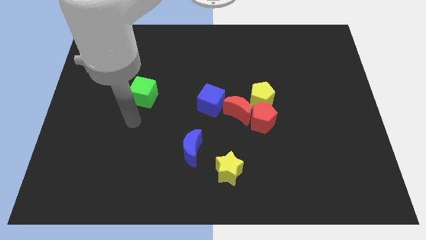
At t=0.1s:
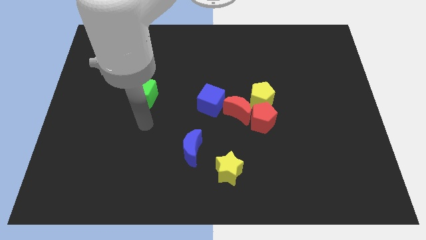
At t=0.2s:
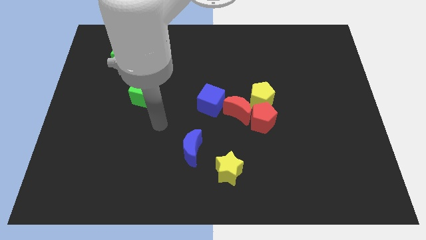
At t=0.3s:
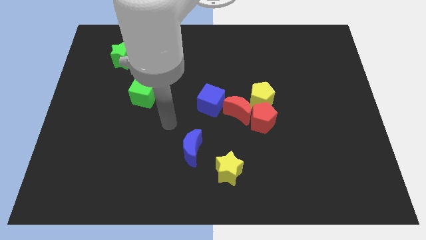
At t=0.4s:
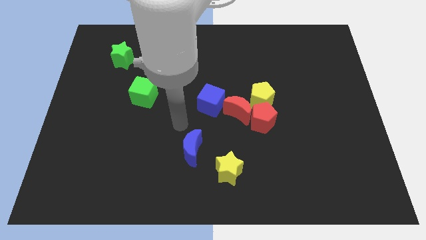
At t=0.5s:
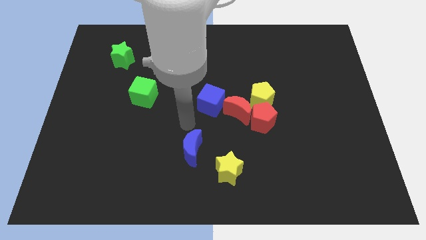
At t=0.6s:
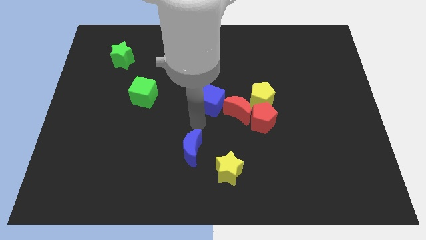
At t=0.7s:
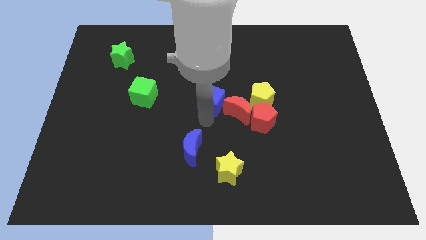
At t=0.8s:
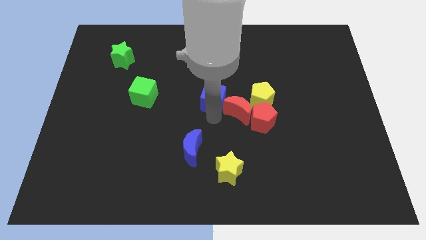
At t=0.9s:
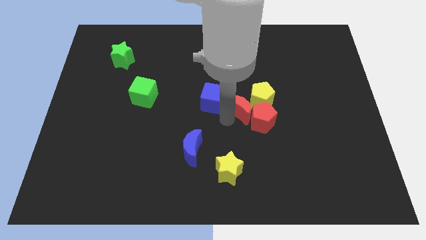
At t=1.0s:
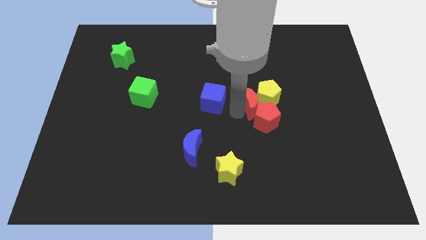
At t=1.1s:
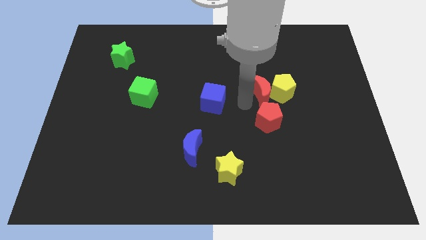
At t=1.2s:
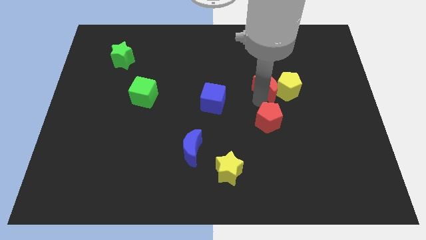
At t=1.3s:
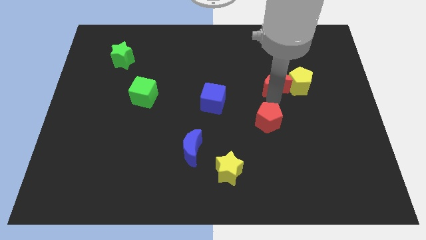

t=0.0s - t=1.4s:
pull the red pentagon apart from the red moon and yellow pentagon

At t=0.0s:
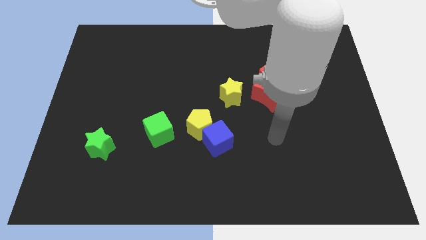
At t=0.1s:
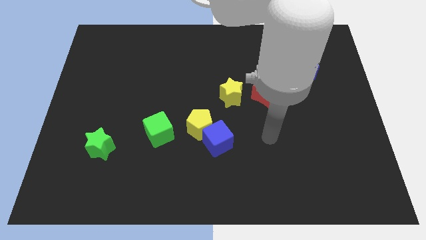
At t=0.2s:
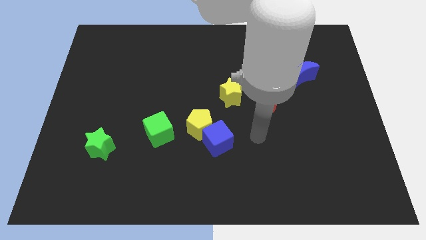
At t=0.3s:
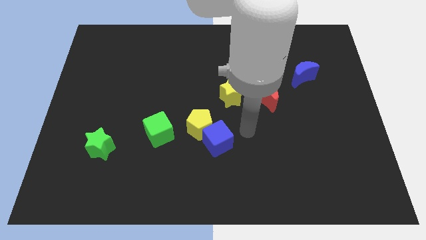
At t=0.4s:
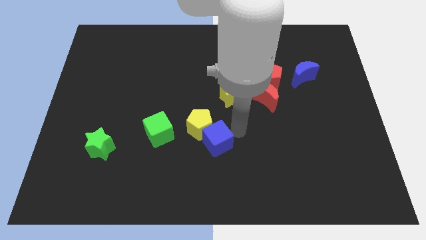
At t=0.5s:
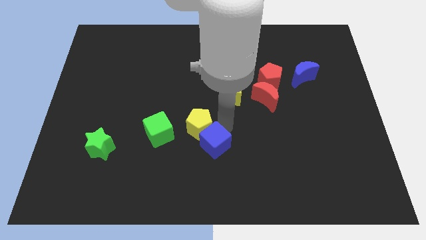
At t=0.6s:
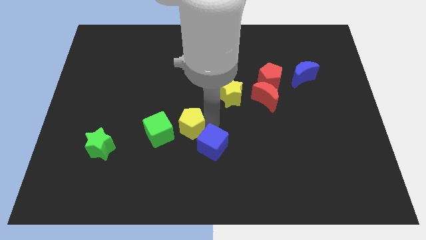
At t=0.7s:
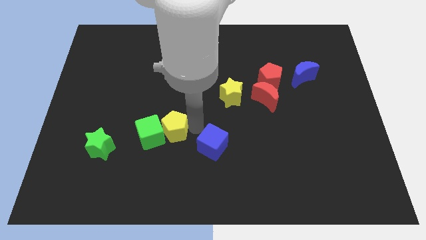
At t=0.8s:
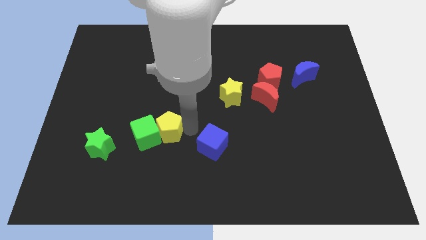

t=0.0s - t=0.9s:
move the blue cube away from the yellow pentagon

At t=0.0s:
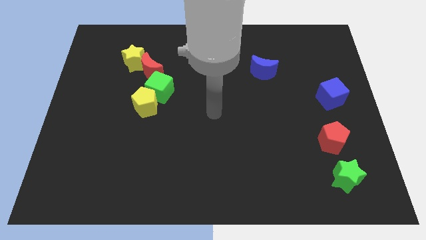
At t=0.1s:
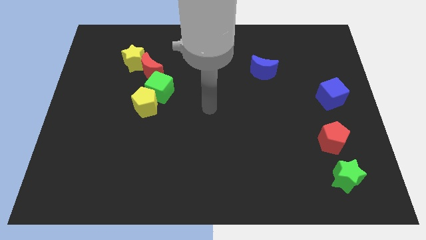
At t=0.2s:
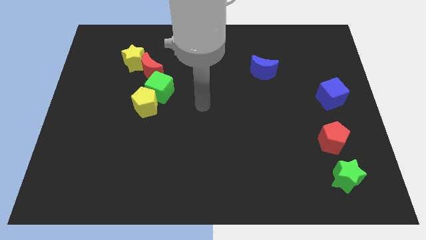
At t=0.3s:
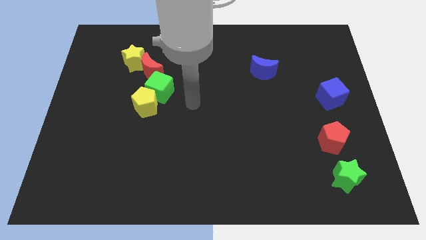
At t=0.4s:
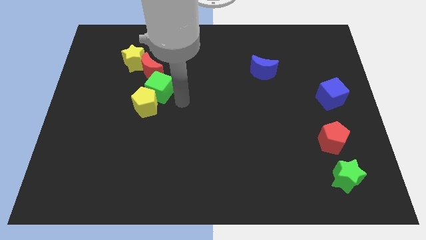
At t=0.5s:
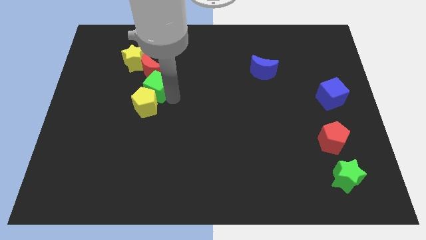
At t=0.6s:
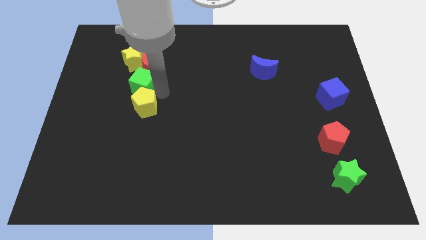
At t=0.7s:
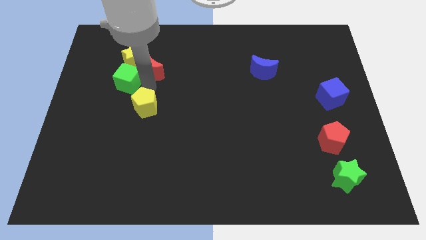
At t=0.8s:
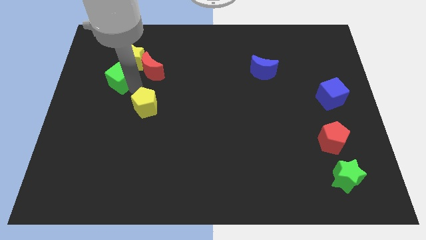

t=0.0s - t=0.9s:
move the yellow pentagon away from the green cube

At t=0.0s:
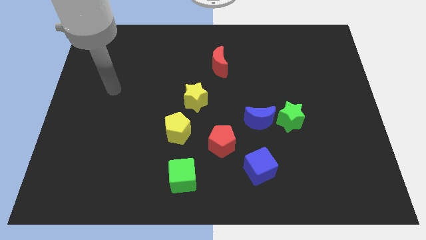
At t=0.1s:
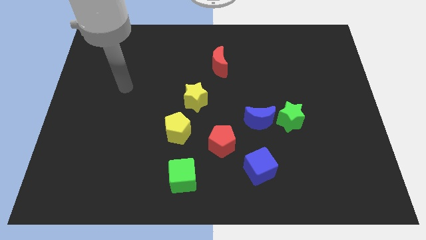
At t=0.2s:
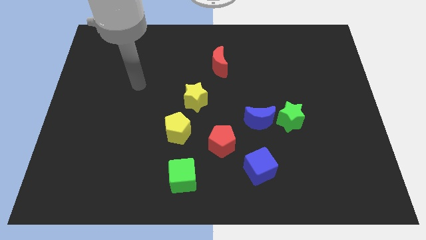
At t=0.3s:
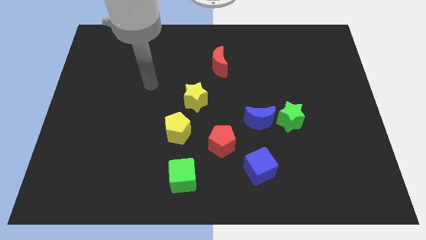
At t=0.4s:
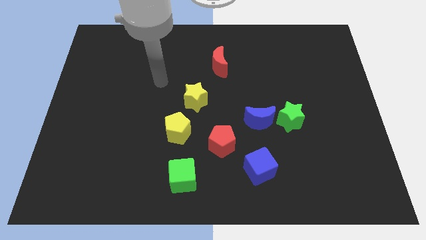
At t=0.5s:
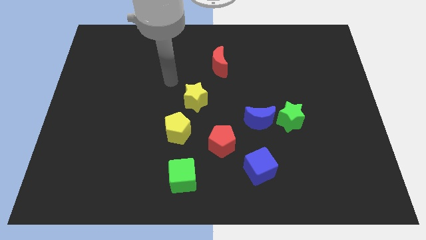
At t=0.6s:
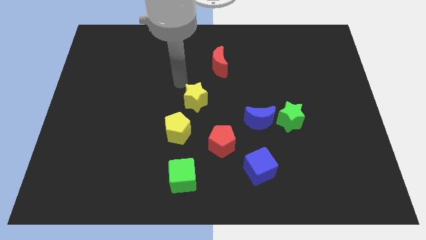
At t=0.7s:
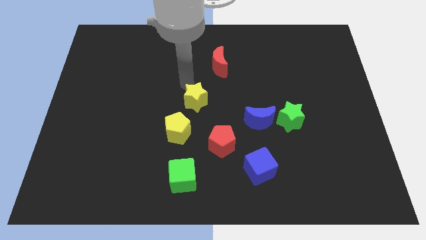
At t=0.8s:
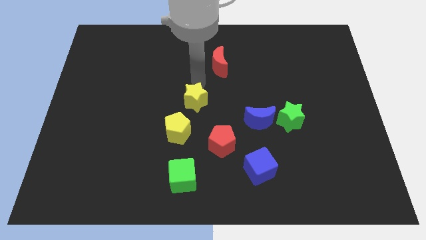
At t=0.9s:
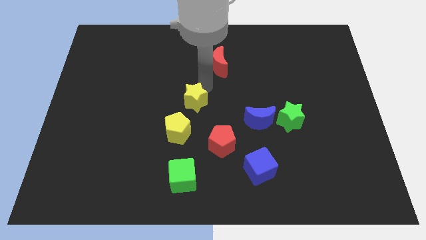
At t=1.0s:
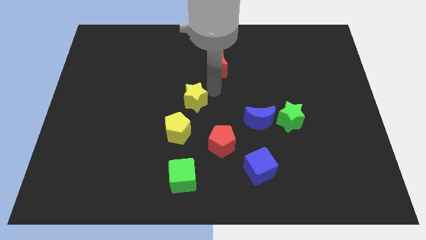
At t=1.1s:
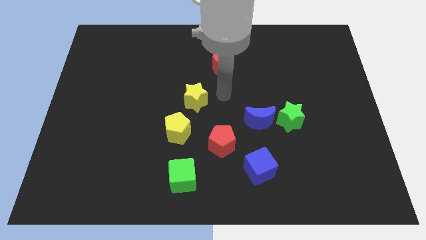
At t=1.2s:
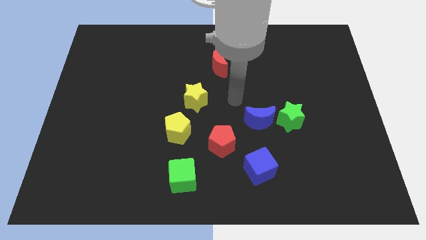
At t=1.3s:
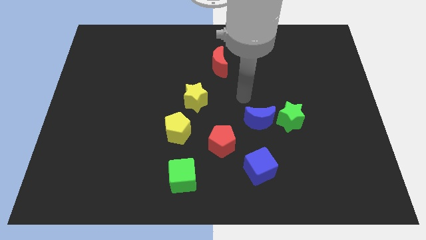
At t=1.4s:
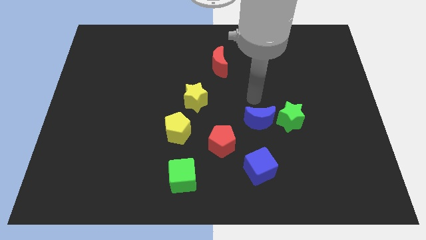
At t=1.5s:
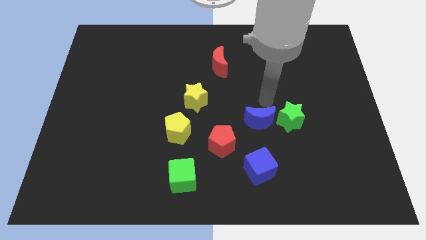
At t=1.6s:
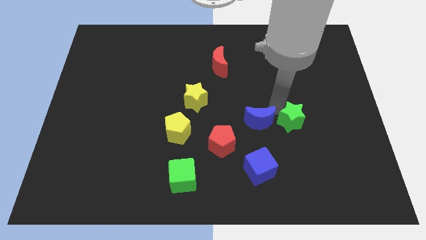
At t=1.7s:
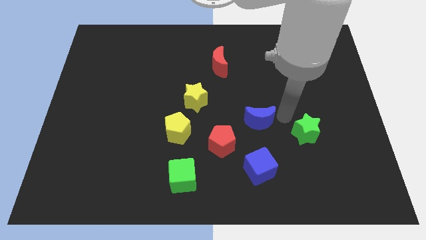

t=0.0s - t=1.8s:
move the blue moon away from the green star

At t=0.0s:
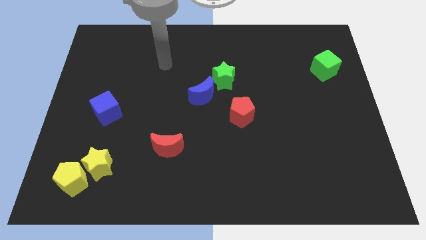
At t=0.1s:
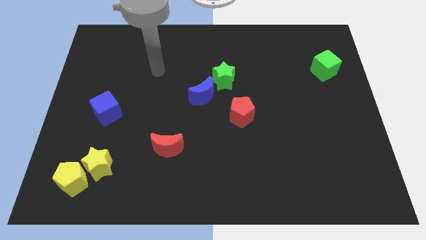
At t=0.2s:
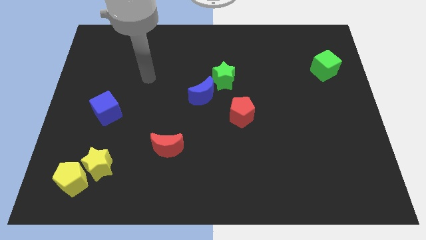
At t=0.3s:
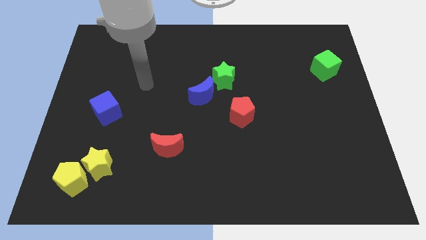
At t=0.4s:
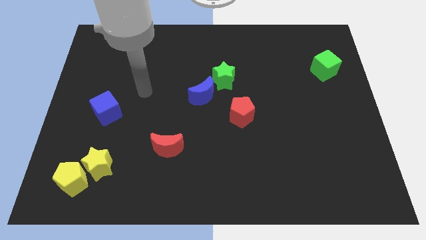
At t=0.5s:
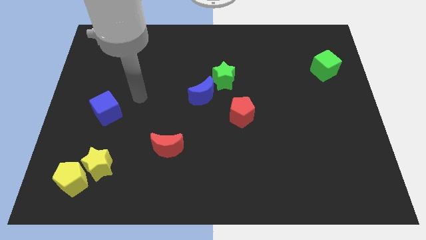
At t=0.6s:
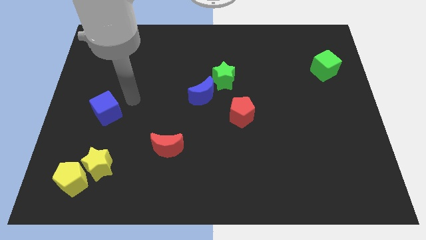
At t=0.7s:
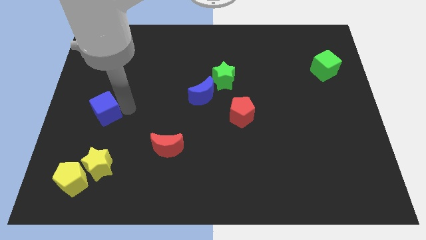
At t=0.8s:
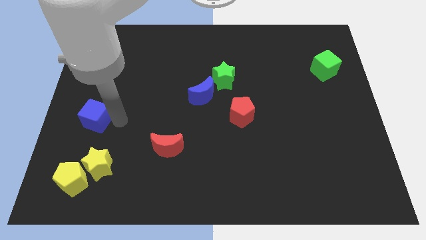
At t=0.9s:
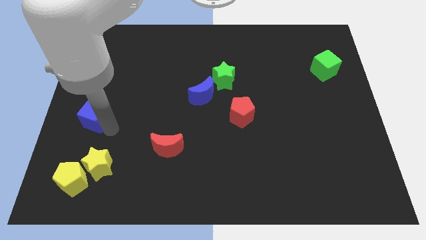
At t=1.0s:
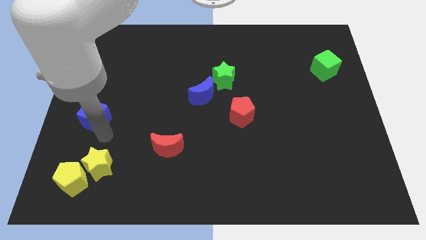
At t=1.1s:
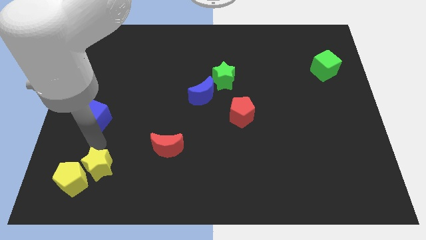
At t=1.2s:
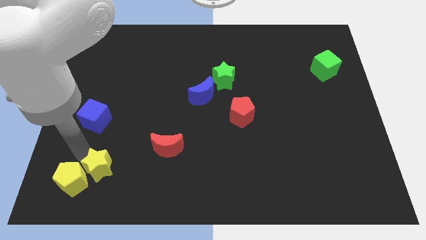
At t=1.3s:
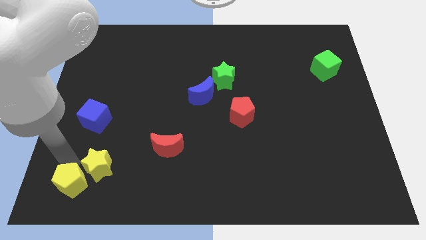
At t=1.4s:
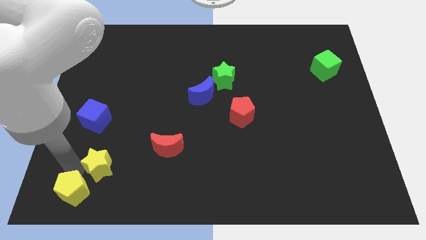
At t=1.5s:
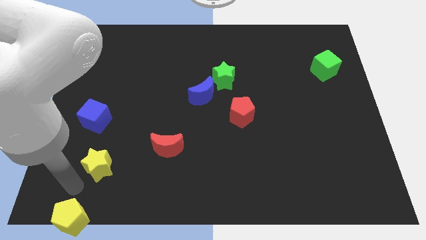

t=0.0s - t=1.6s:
separate the yellow star from the yellow pentagon

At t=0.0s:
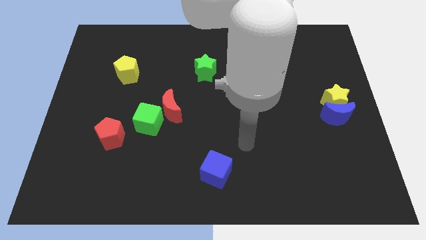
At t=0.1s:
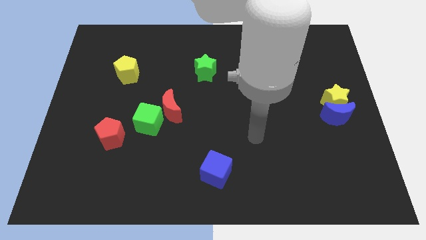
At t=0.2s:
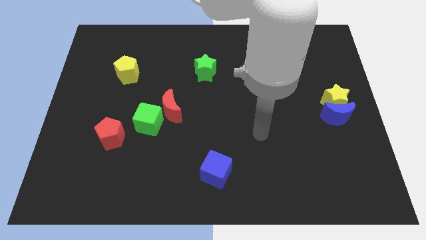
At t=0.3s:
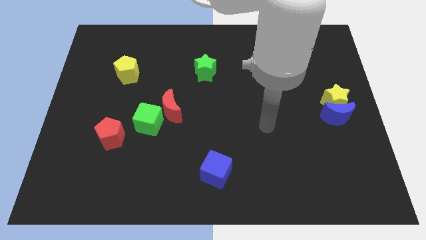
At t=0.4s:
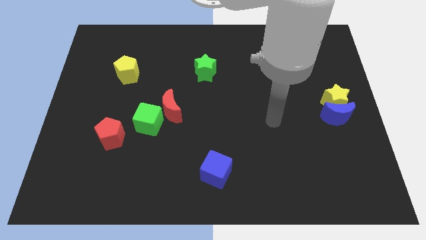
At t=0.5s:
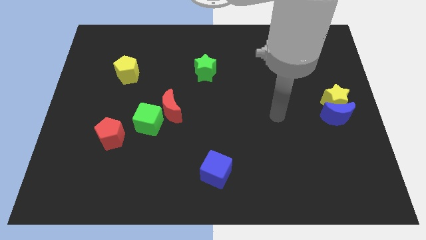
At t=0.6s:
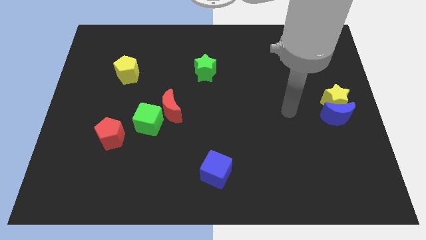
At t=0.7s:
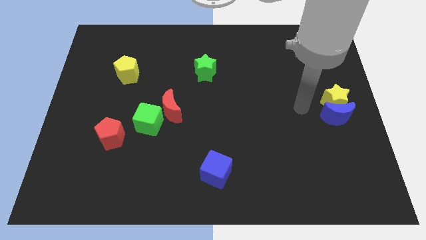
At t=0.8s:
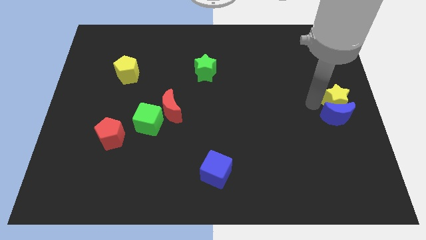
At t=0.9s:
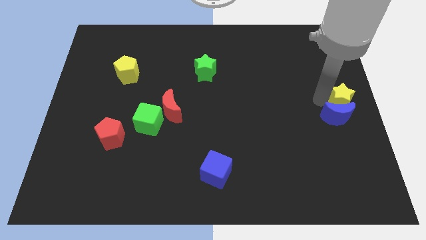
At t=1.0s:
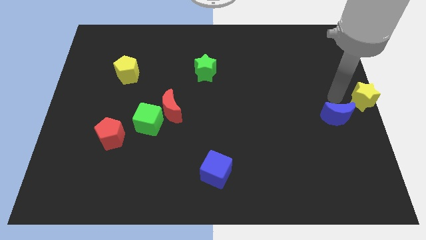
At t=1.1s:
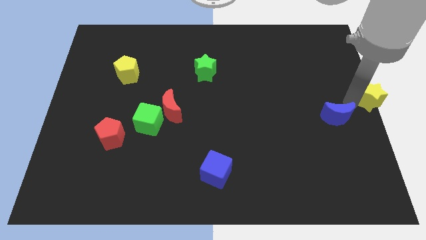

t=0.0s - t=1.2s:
pull the blue moon apart from the yellow star

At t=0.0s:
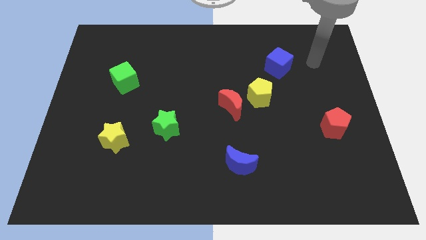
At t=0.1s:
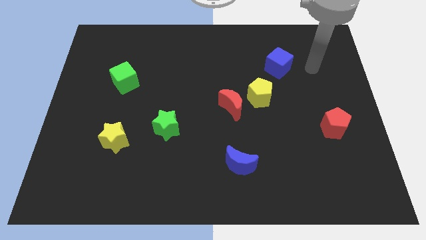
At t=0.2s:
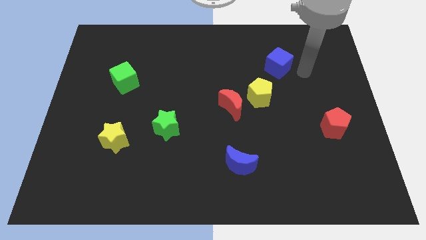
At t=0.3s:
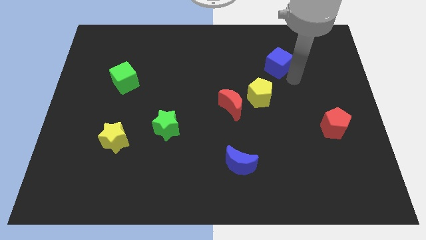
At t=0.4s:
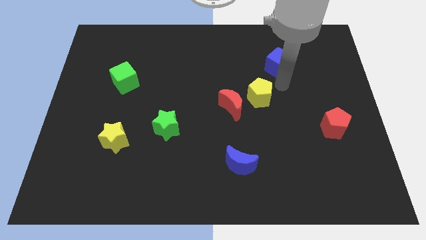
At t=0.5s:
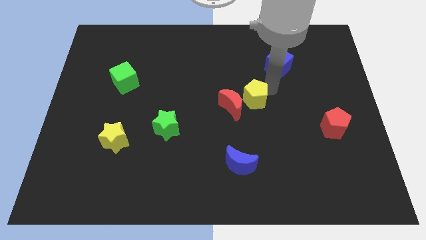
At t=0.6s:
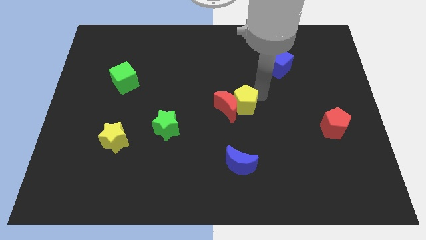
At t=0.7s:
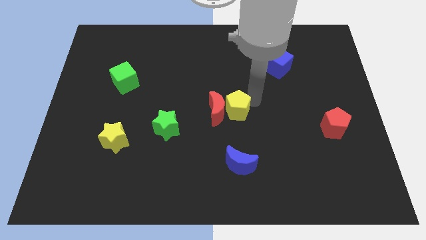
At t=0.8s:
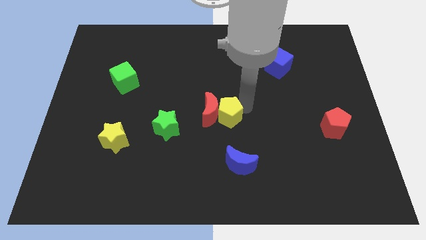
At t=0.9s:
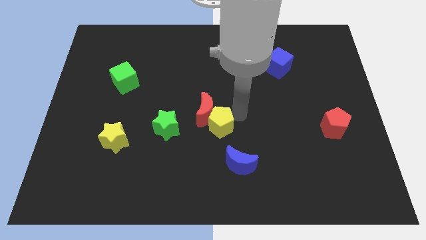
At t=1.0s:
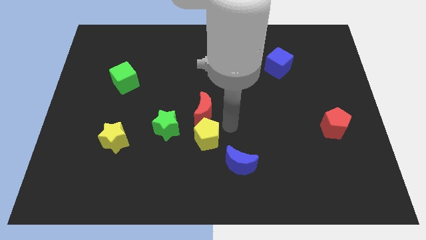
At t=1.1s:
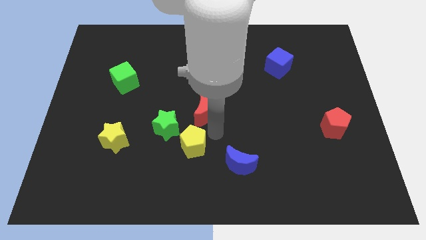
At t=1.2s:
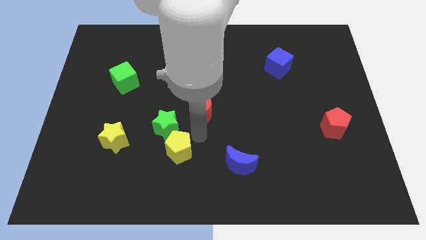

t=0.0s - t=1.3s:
separate the red moon from the yellow pentagon

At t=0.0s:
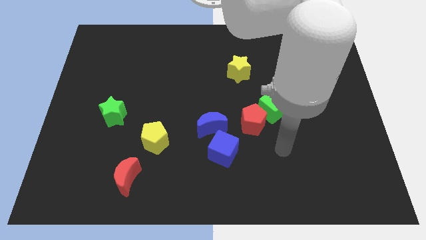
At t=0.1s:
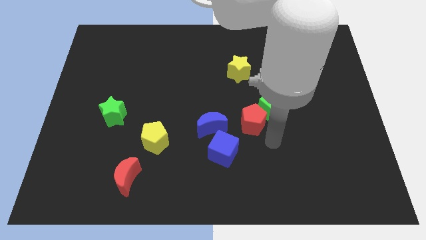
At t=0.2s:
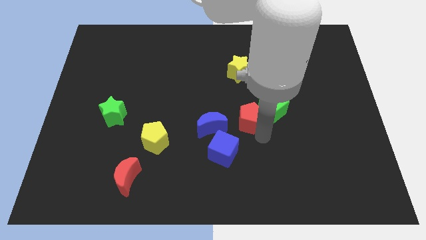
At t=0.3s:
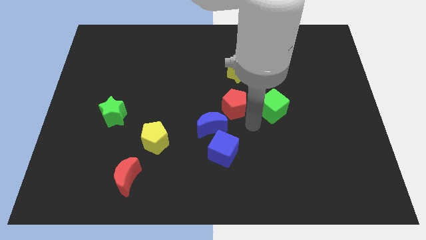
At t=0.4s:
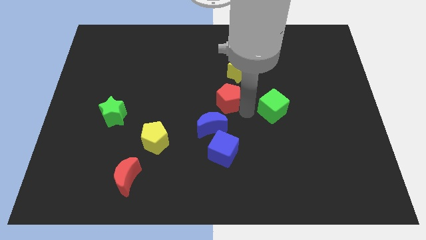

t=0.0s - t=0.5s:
move the green cube away from the red pentagon
